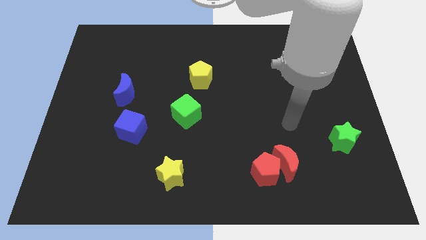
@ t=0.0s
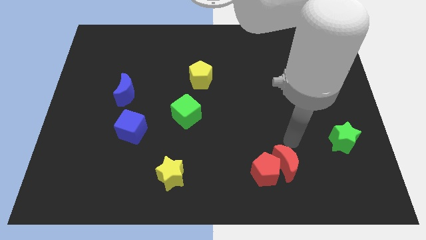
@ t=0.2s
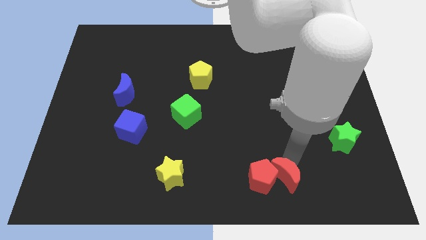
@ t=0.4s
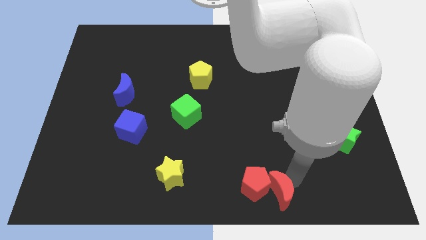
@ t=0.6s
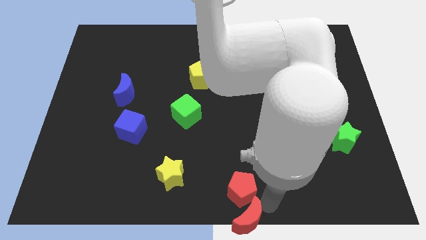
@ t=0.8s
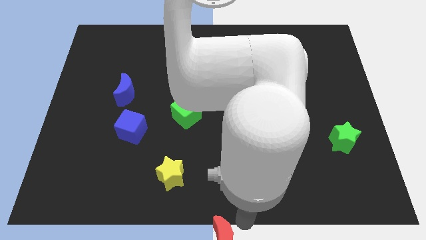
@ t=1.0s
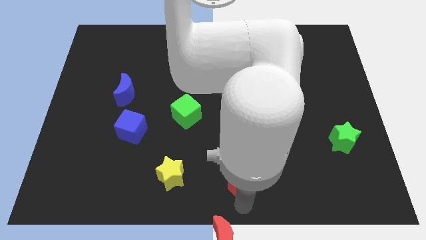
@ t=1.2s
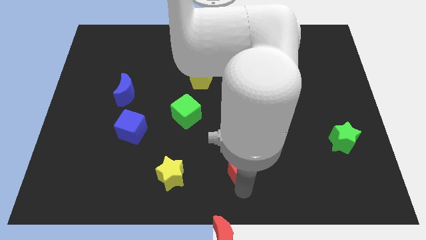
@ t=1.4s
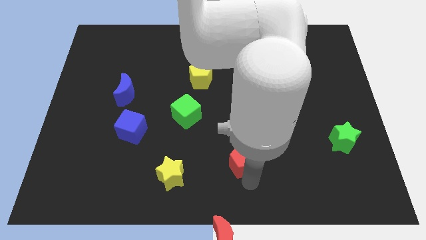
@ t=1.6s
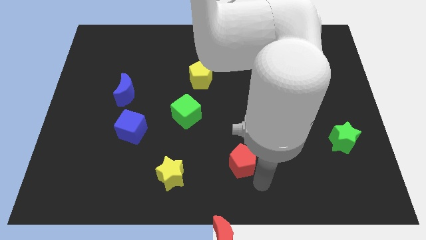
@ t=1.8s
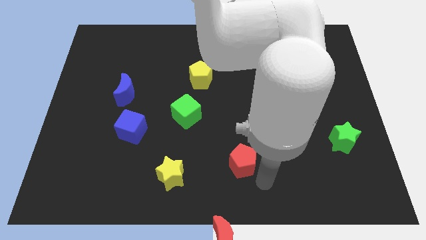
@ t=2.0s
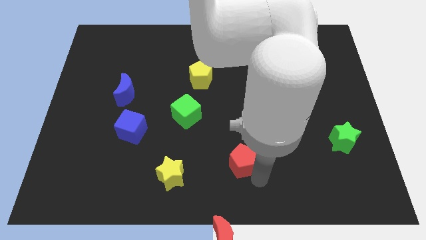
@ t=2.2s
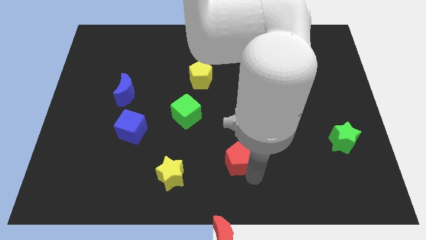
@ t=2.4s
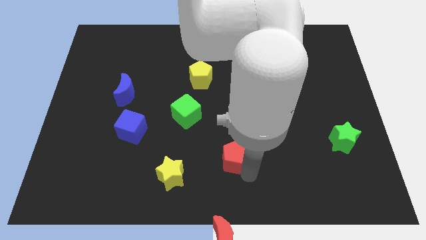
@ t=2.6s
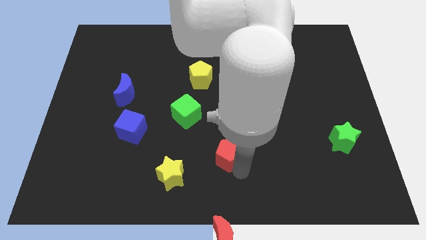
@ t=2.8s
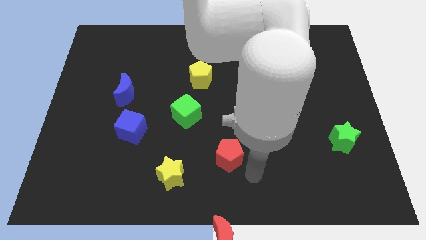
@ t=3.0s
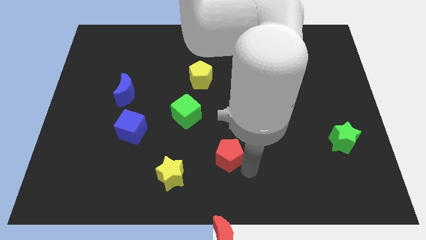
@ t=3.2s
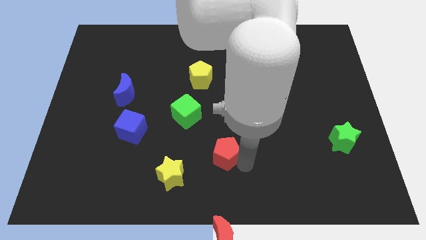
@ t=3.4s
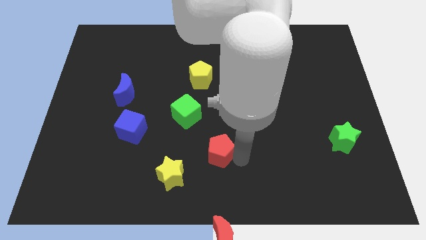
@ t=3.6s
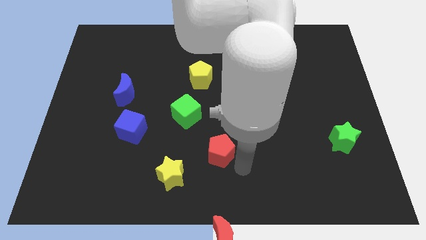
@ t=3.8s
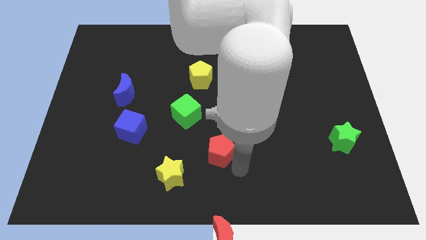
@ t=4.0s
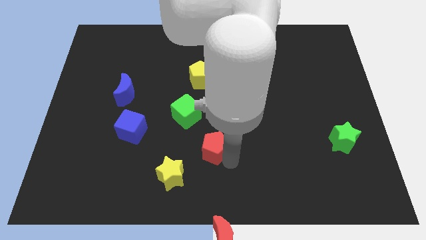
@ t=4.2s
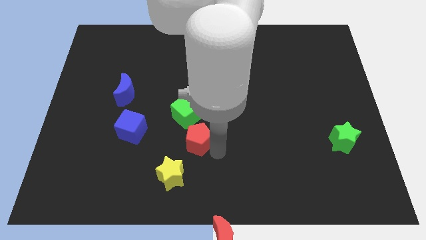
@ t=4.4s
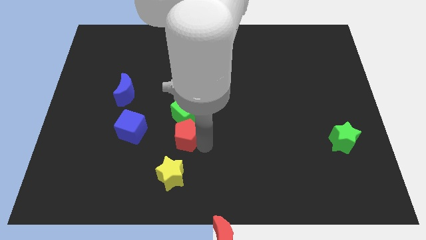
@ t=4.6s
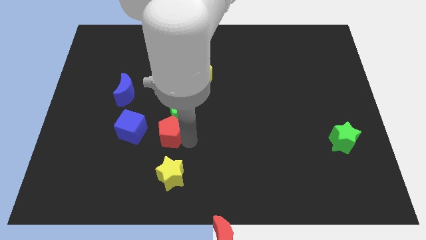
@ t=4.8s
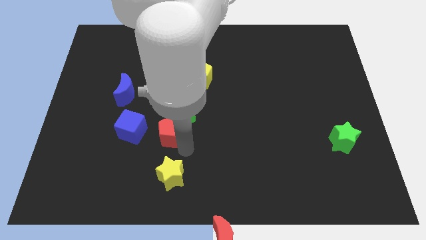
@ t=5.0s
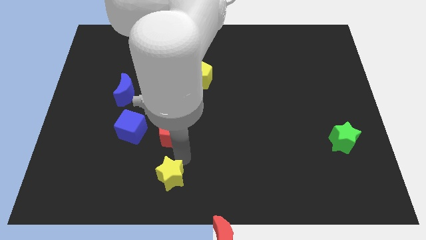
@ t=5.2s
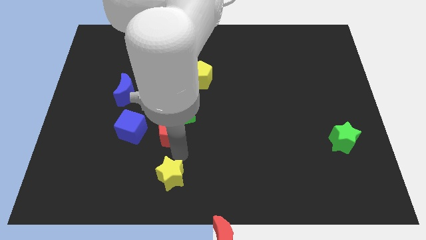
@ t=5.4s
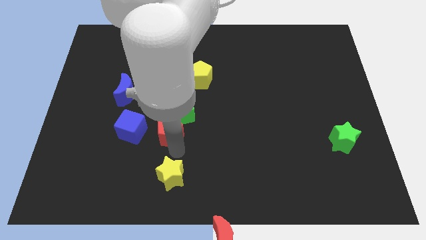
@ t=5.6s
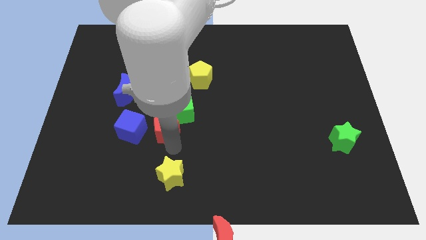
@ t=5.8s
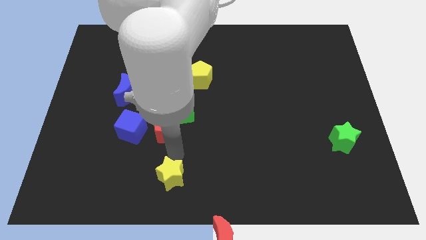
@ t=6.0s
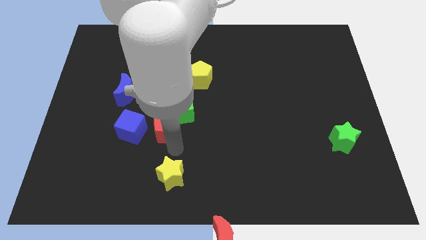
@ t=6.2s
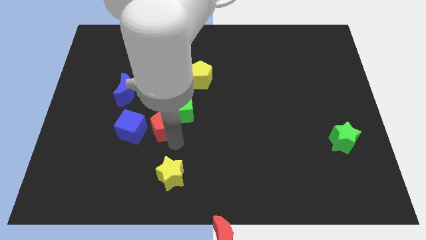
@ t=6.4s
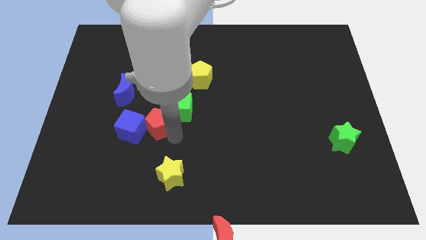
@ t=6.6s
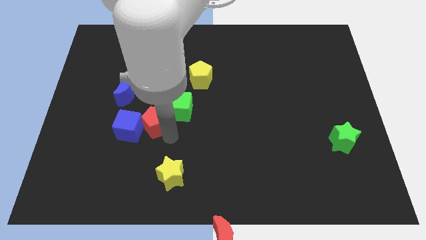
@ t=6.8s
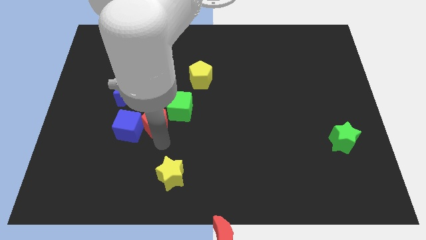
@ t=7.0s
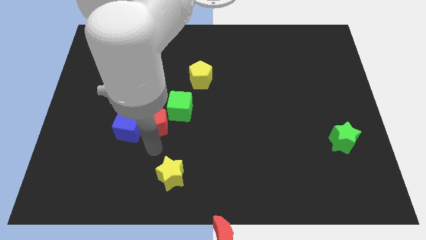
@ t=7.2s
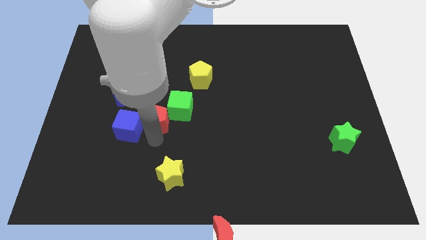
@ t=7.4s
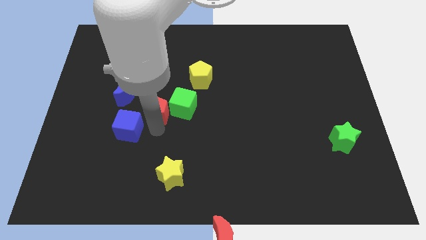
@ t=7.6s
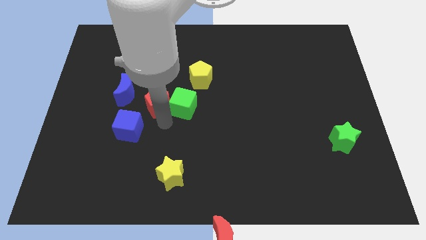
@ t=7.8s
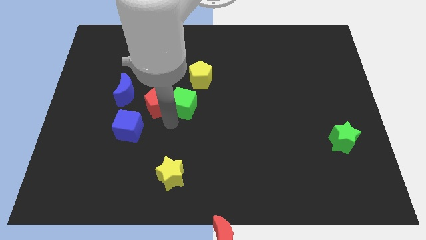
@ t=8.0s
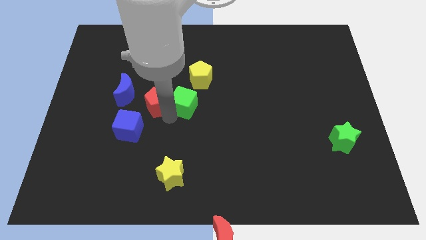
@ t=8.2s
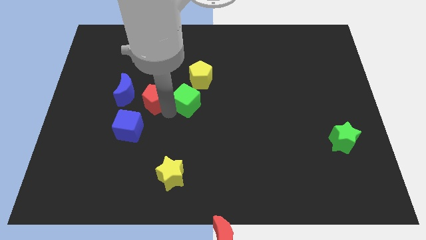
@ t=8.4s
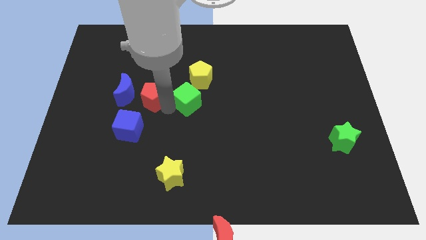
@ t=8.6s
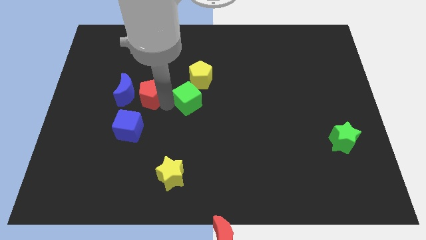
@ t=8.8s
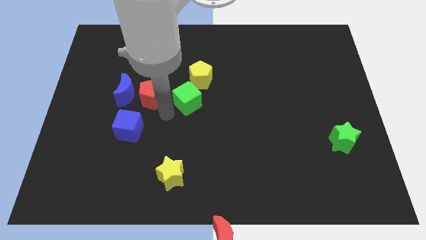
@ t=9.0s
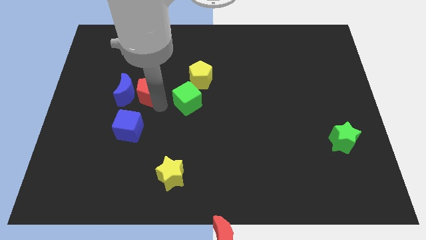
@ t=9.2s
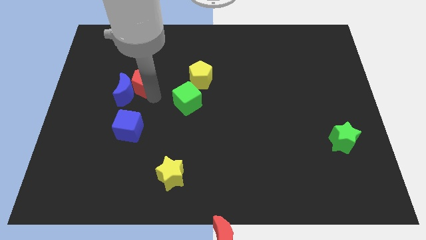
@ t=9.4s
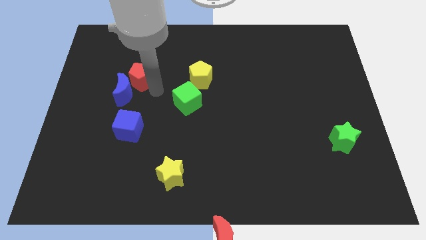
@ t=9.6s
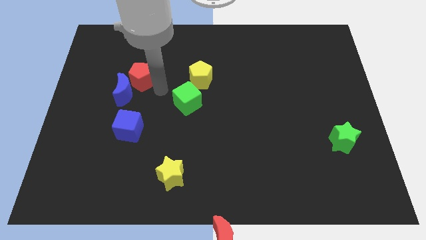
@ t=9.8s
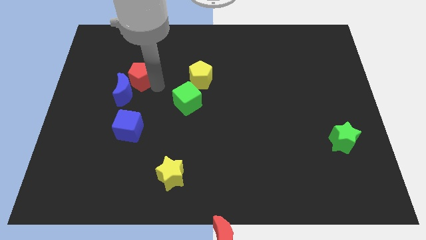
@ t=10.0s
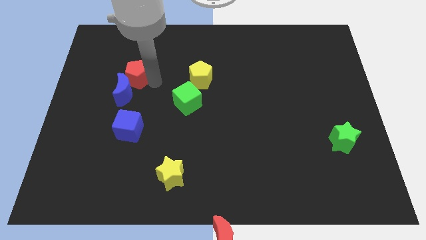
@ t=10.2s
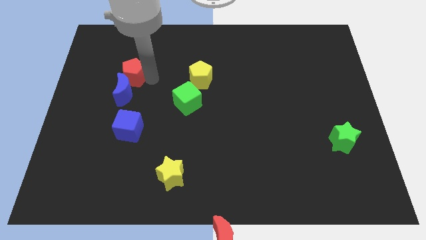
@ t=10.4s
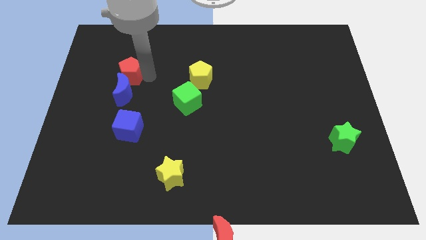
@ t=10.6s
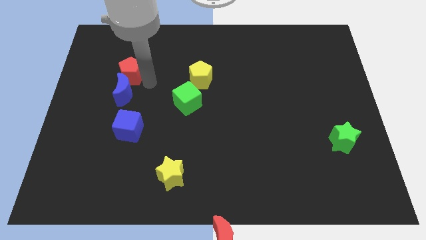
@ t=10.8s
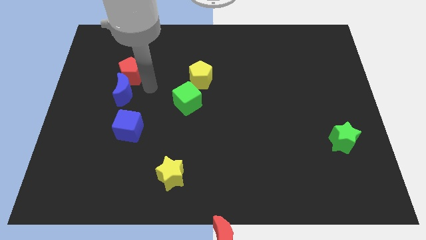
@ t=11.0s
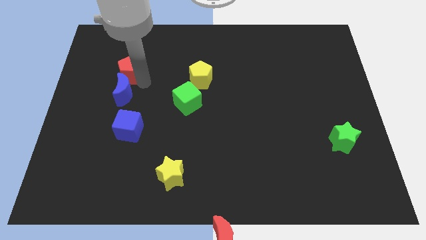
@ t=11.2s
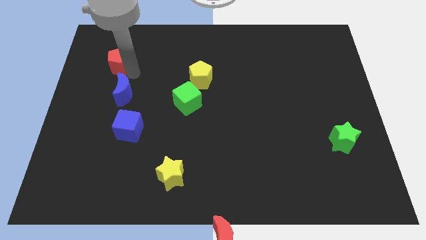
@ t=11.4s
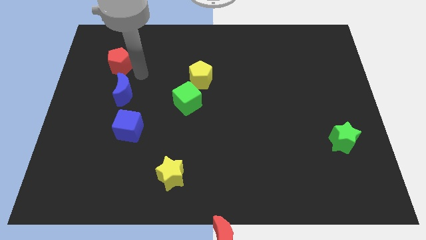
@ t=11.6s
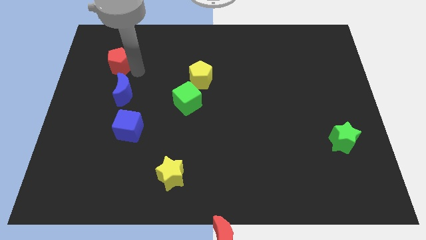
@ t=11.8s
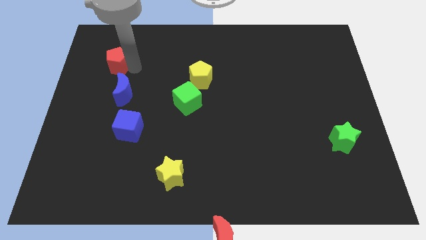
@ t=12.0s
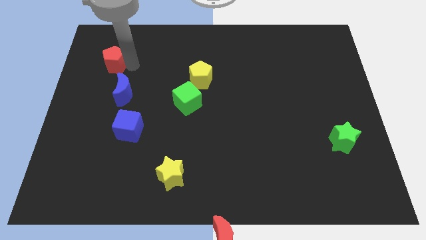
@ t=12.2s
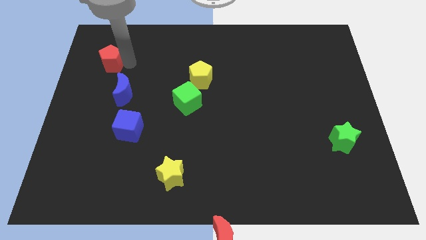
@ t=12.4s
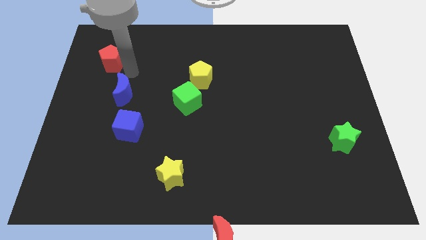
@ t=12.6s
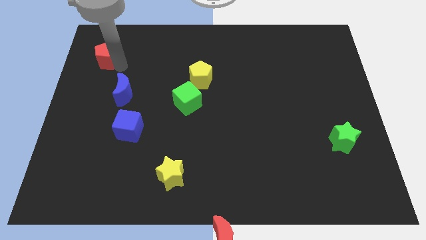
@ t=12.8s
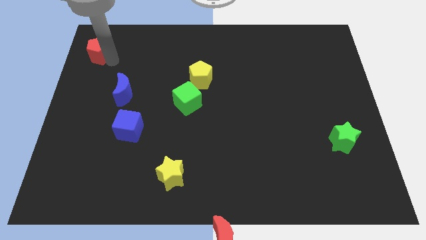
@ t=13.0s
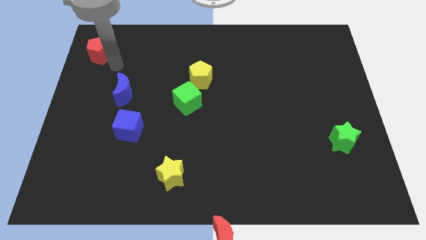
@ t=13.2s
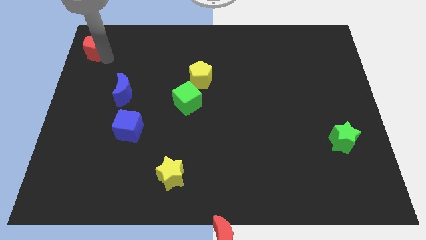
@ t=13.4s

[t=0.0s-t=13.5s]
slide the red pentagon to the upper left corner
